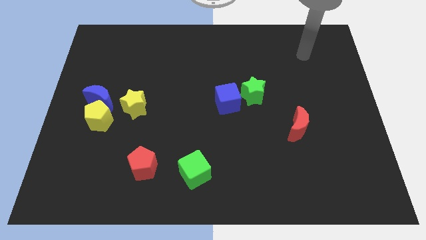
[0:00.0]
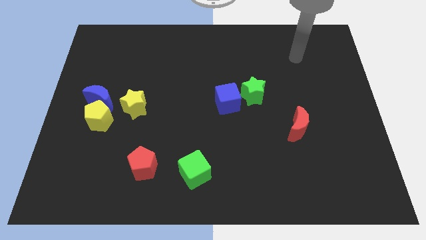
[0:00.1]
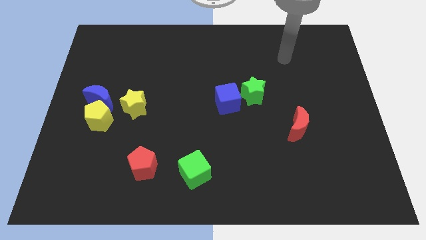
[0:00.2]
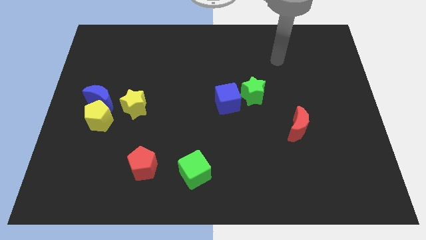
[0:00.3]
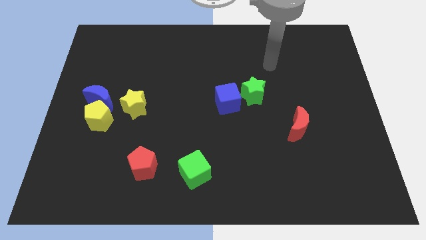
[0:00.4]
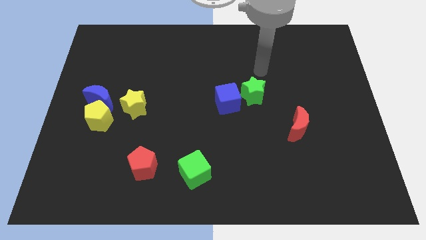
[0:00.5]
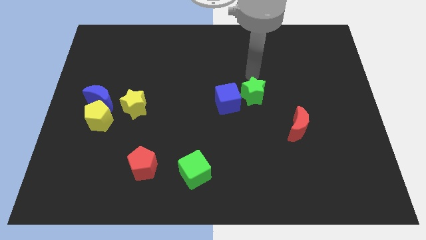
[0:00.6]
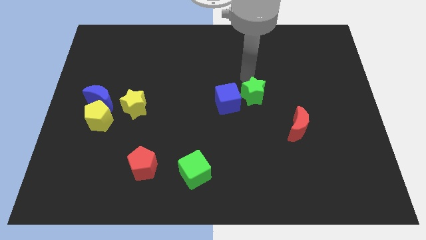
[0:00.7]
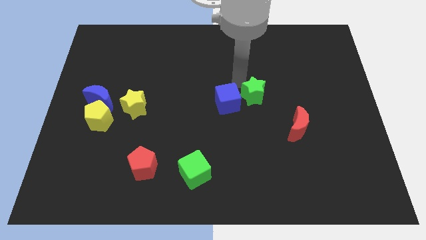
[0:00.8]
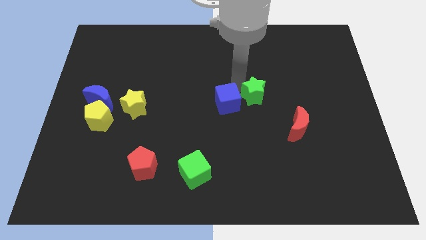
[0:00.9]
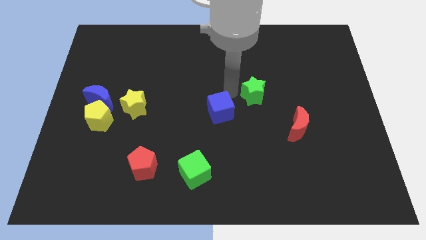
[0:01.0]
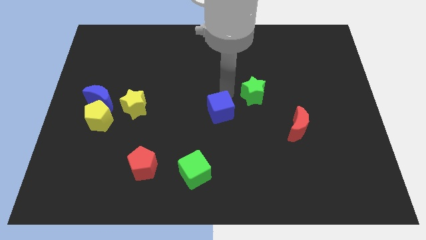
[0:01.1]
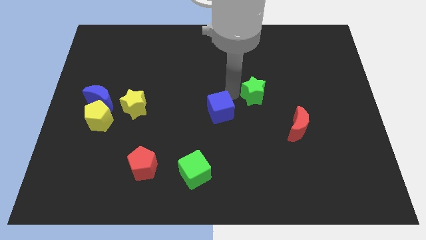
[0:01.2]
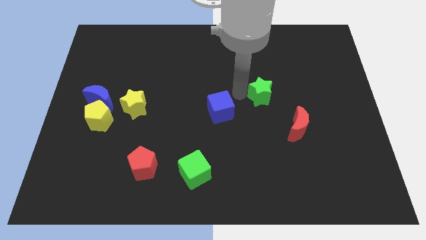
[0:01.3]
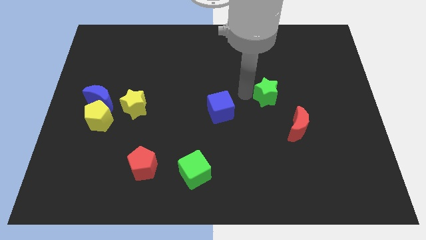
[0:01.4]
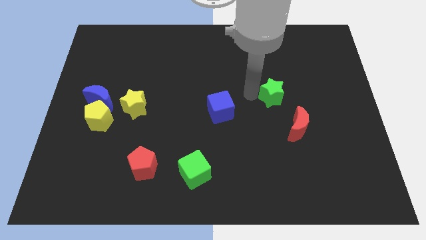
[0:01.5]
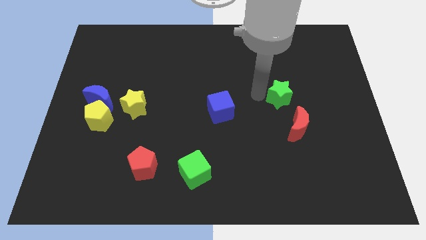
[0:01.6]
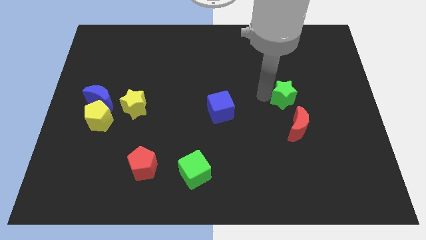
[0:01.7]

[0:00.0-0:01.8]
slide the green star right a bit

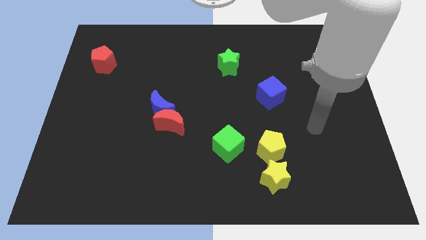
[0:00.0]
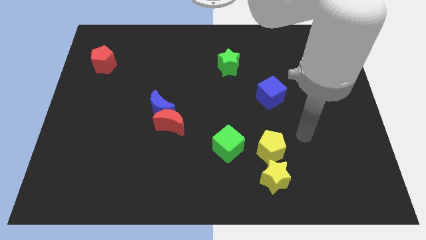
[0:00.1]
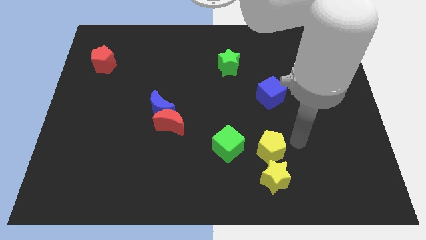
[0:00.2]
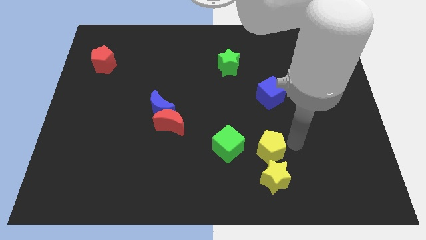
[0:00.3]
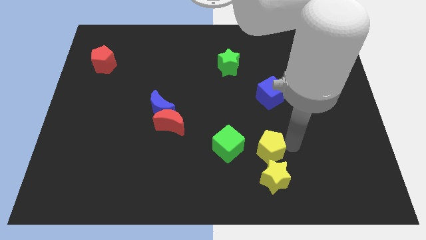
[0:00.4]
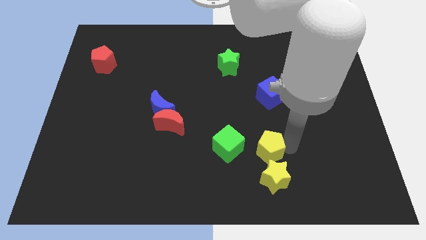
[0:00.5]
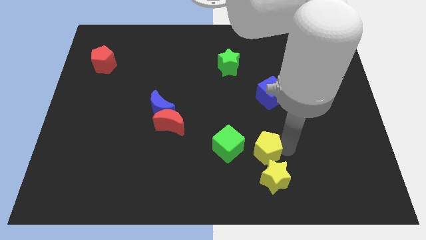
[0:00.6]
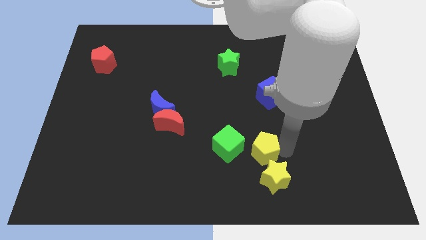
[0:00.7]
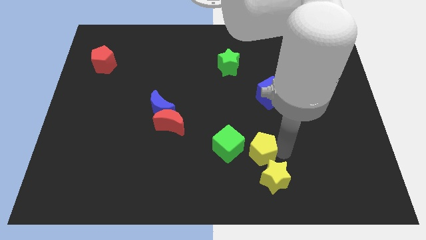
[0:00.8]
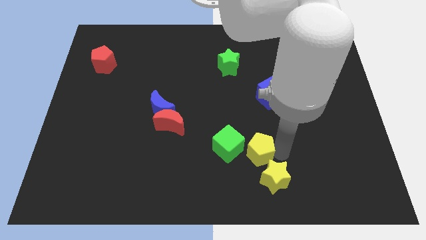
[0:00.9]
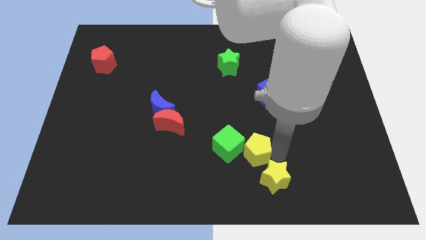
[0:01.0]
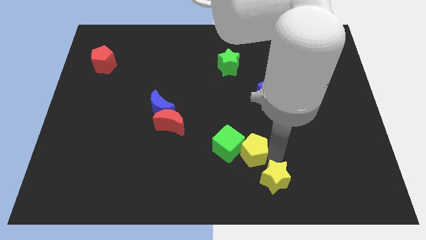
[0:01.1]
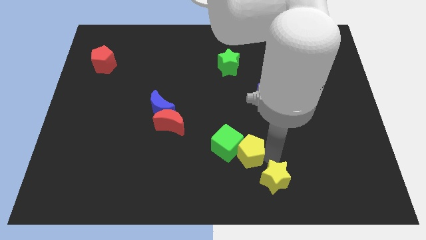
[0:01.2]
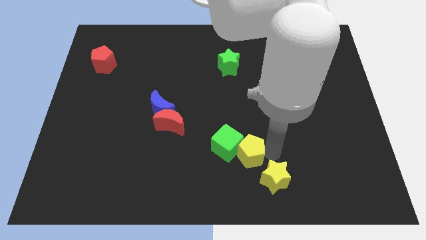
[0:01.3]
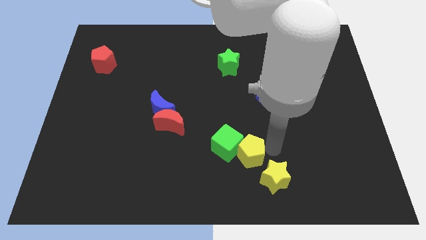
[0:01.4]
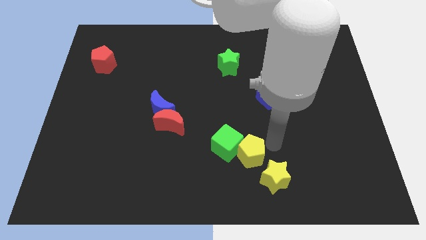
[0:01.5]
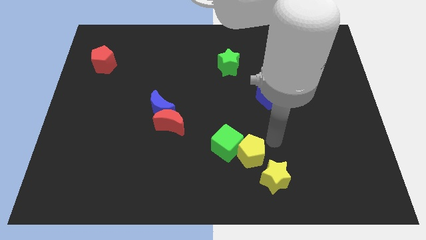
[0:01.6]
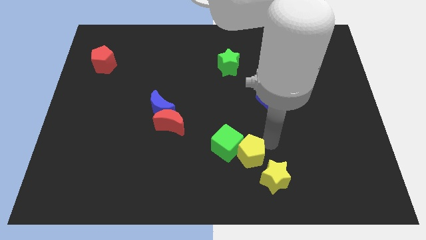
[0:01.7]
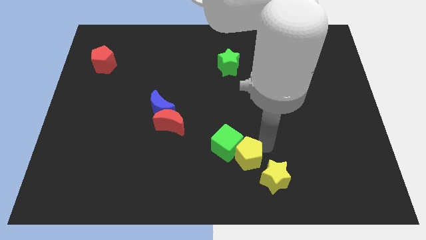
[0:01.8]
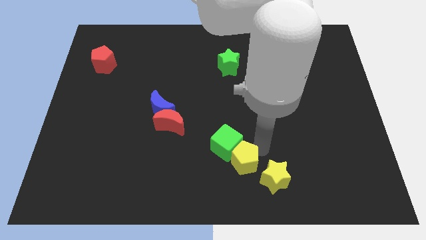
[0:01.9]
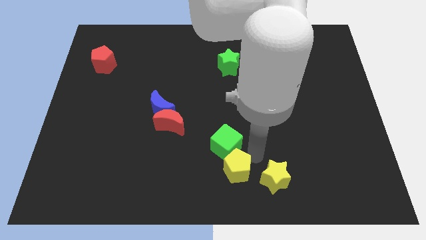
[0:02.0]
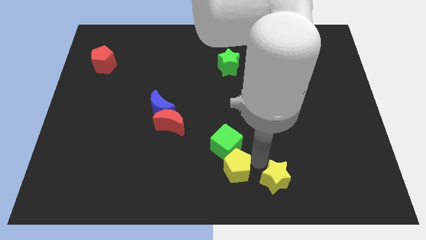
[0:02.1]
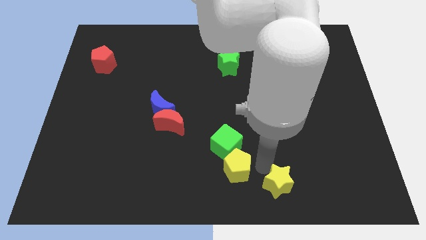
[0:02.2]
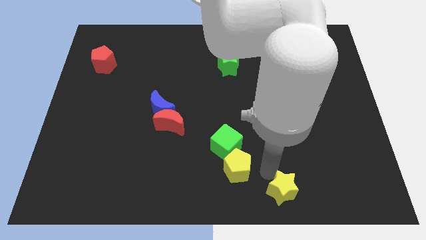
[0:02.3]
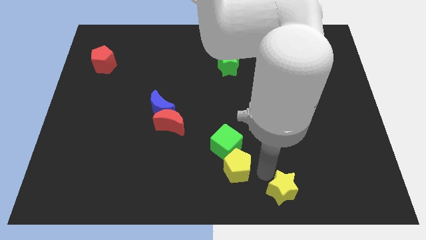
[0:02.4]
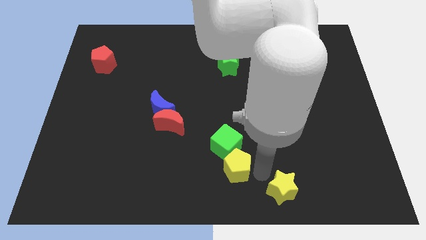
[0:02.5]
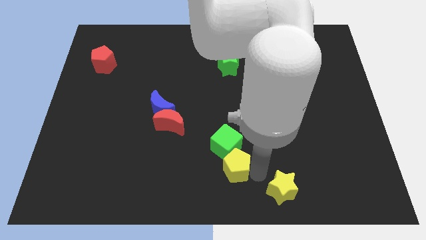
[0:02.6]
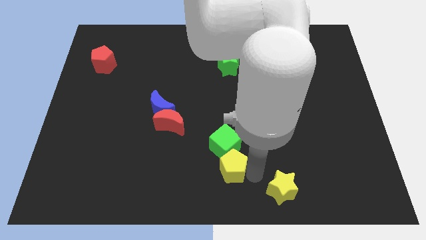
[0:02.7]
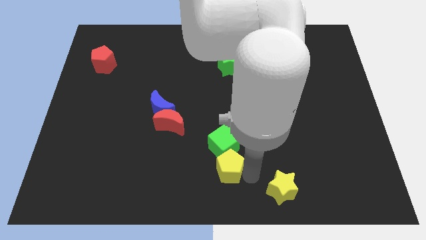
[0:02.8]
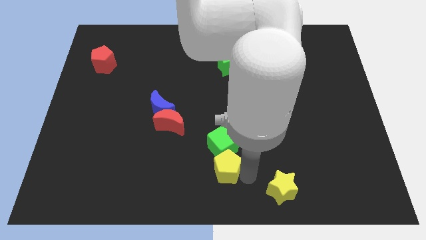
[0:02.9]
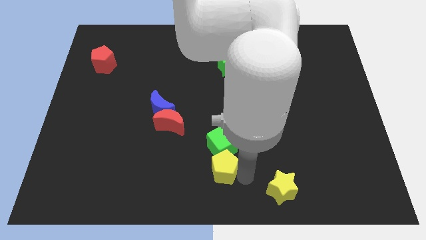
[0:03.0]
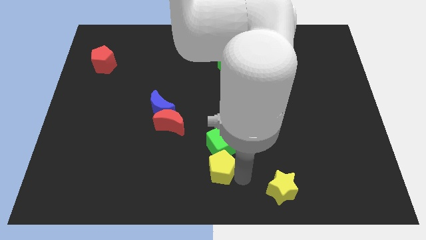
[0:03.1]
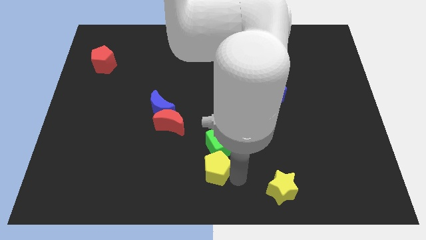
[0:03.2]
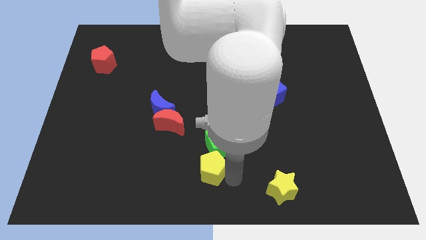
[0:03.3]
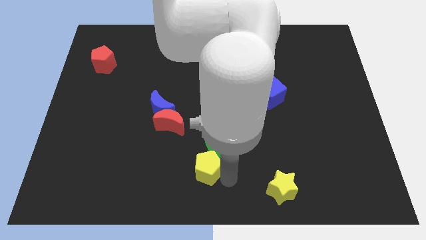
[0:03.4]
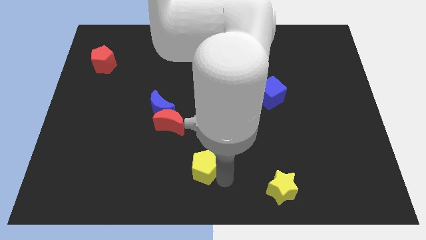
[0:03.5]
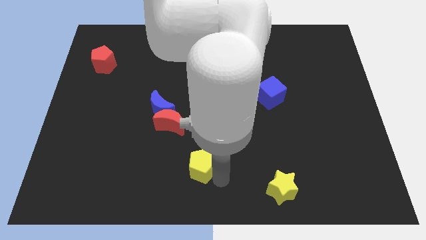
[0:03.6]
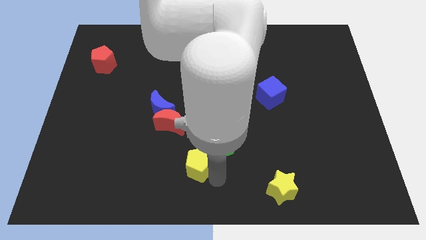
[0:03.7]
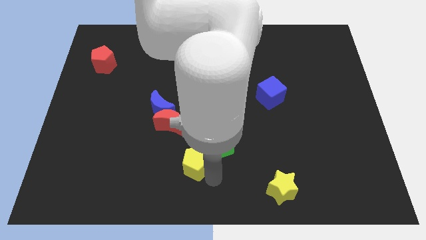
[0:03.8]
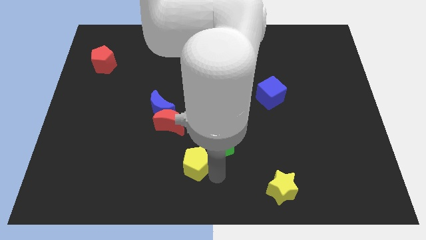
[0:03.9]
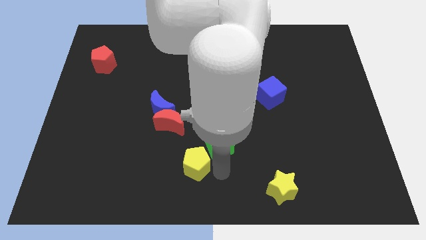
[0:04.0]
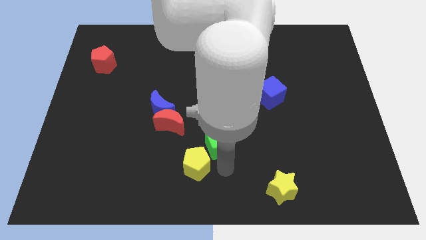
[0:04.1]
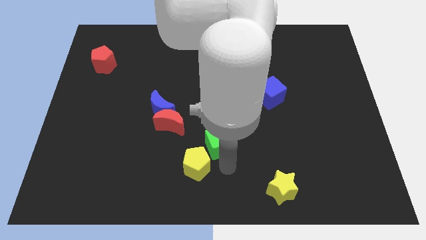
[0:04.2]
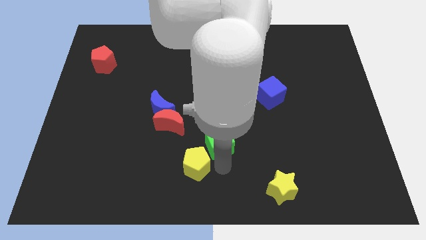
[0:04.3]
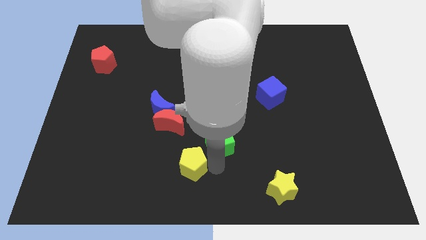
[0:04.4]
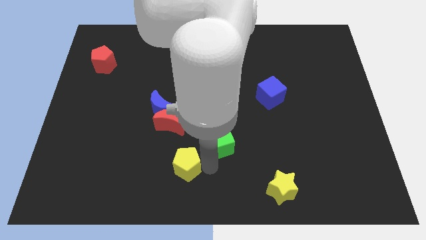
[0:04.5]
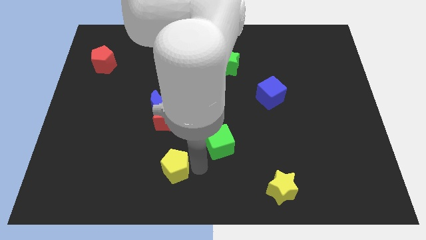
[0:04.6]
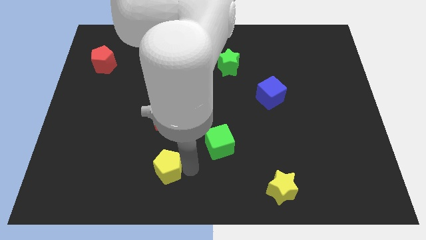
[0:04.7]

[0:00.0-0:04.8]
push the yellow pentagon left

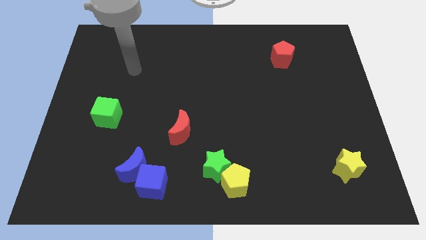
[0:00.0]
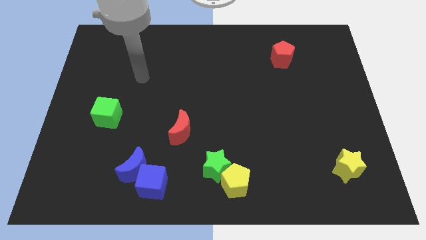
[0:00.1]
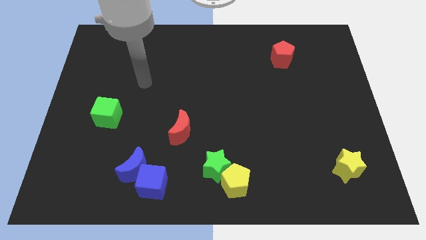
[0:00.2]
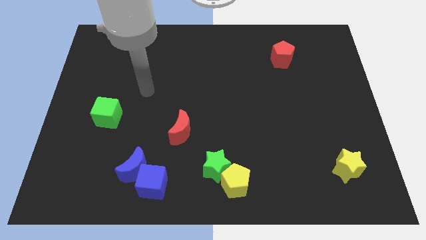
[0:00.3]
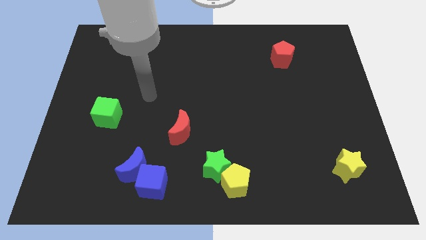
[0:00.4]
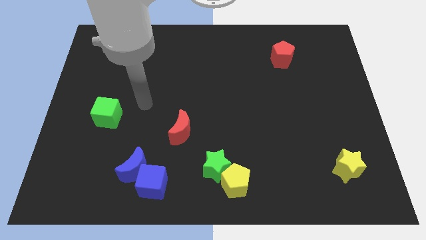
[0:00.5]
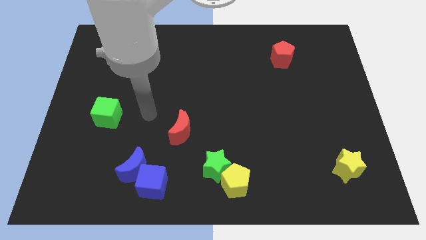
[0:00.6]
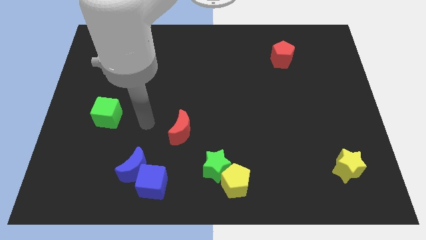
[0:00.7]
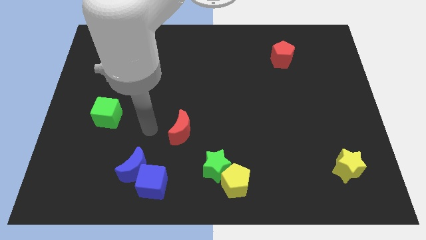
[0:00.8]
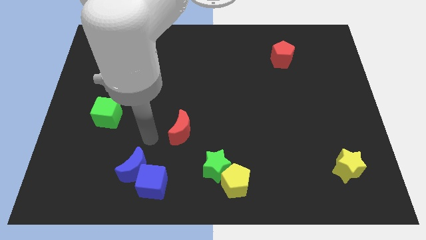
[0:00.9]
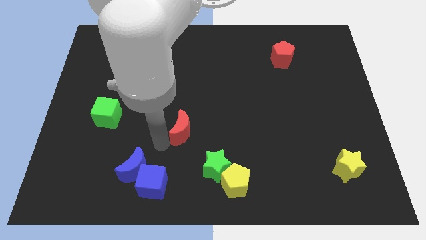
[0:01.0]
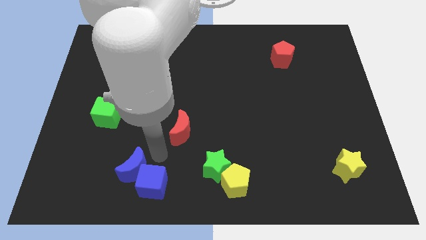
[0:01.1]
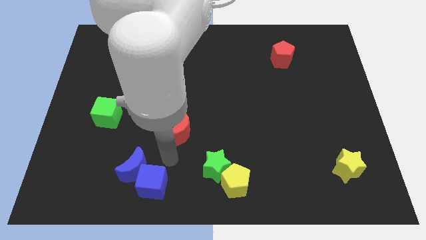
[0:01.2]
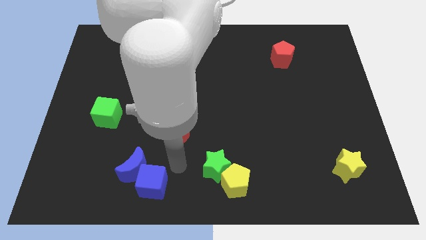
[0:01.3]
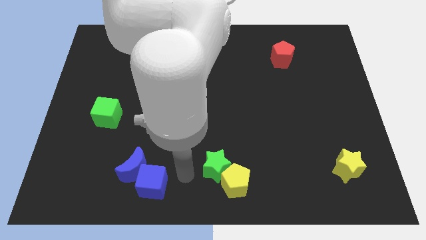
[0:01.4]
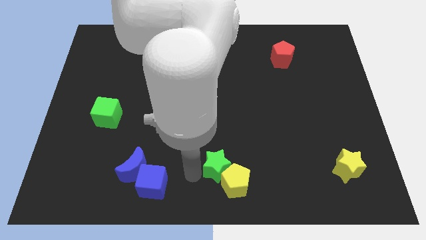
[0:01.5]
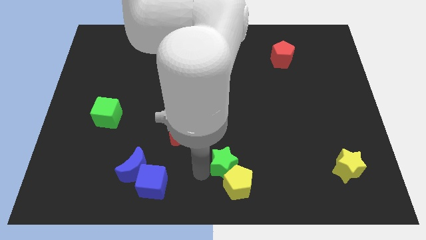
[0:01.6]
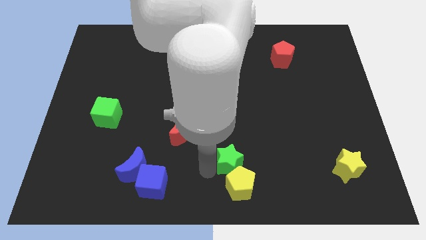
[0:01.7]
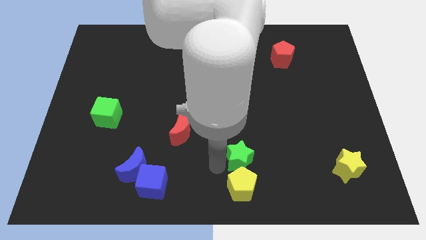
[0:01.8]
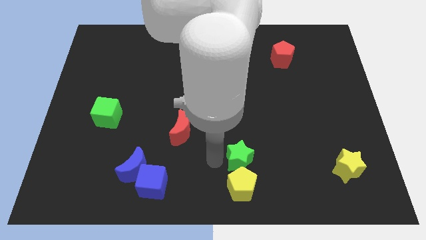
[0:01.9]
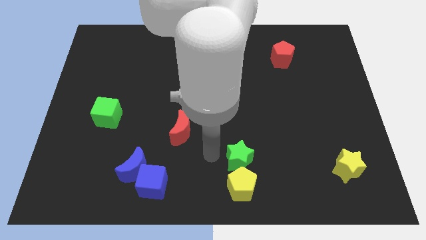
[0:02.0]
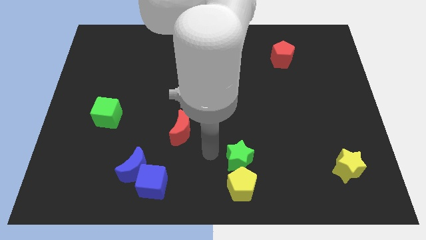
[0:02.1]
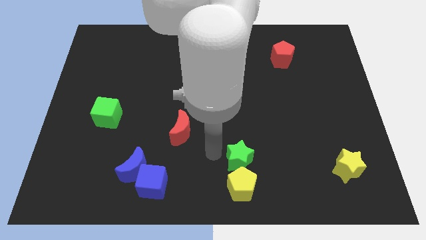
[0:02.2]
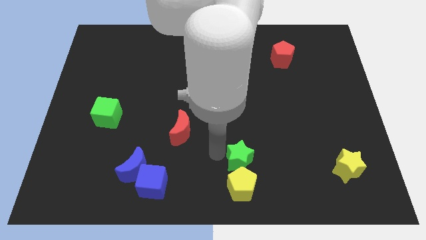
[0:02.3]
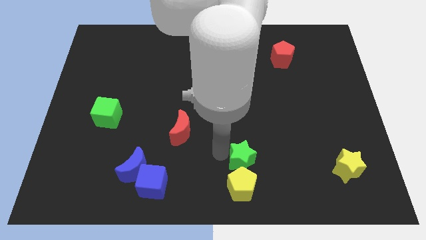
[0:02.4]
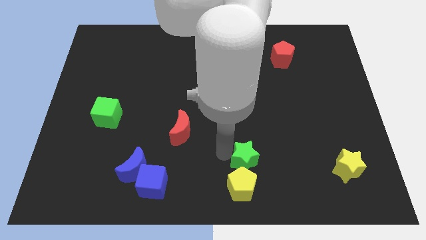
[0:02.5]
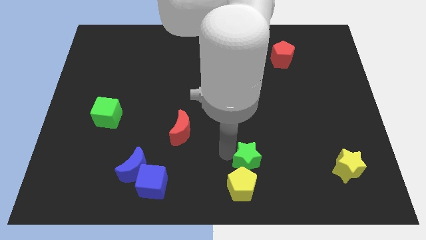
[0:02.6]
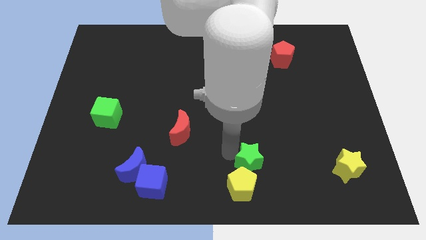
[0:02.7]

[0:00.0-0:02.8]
push the green star right a little
